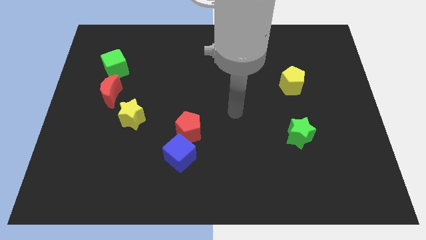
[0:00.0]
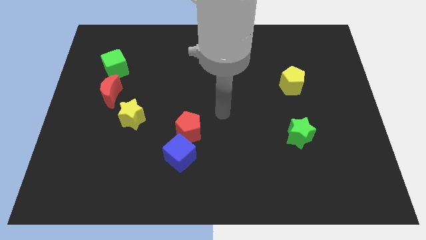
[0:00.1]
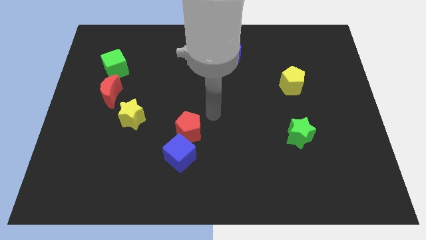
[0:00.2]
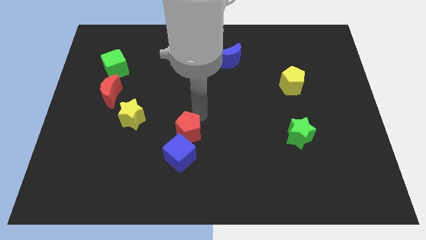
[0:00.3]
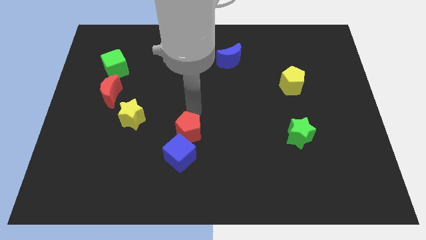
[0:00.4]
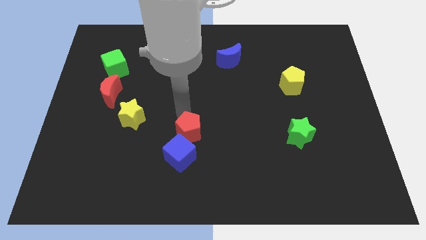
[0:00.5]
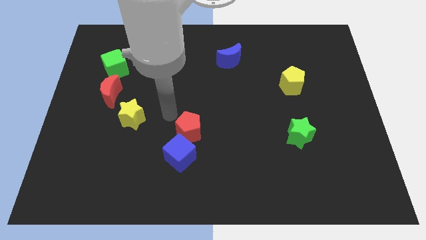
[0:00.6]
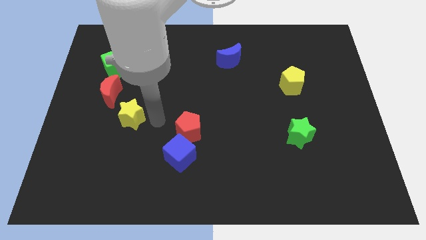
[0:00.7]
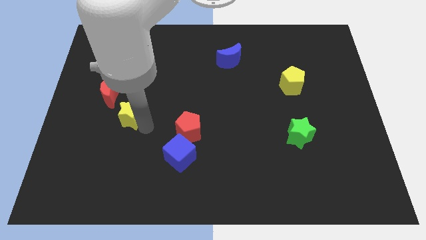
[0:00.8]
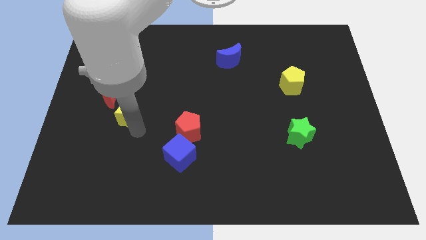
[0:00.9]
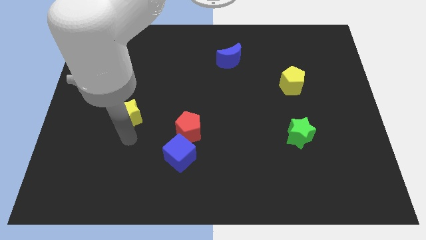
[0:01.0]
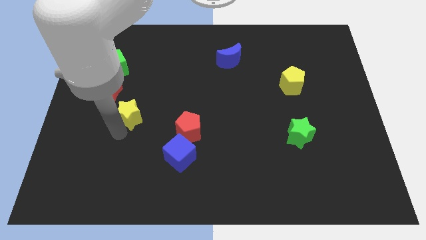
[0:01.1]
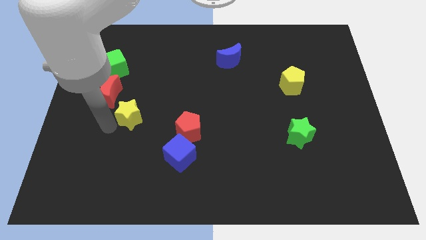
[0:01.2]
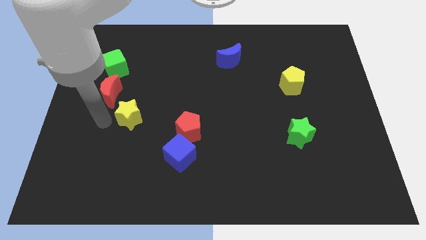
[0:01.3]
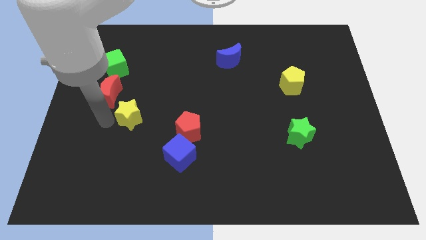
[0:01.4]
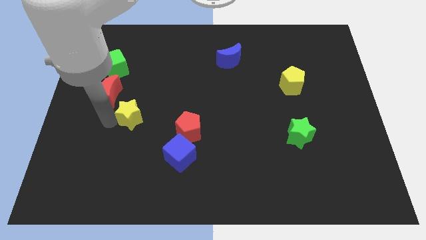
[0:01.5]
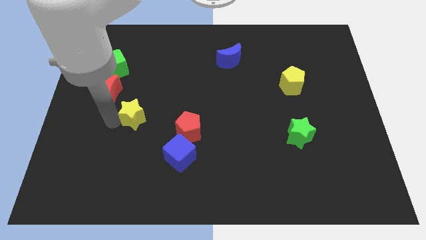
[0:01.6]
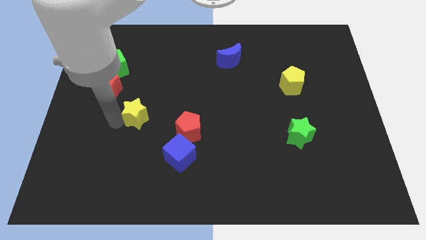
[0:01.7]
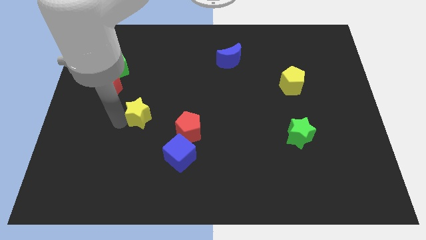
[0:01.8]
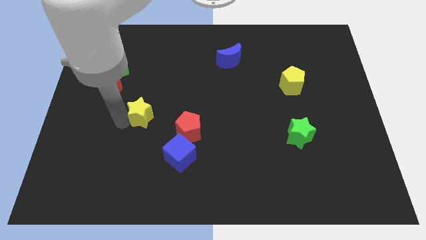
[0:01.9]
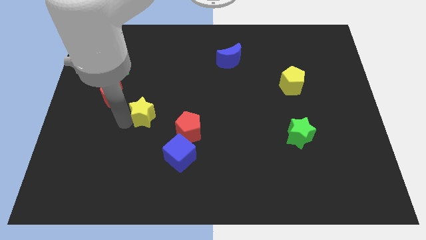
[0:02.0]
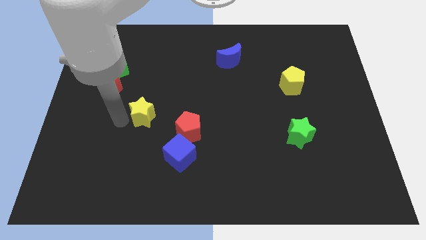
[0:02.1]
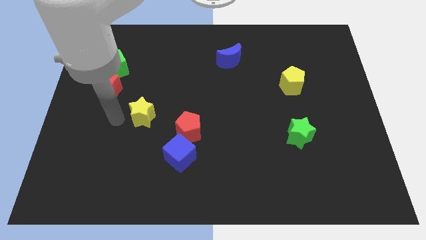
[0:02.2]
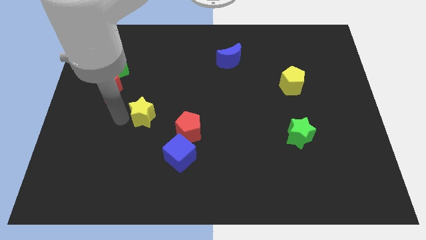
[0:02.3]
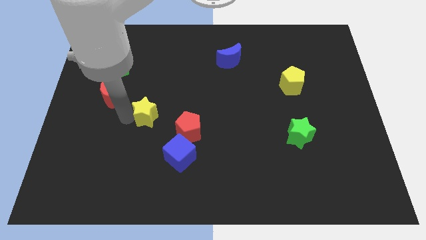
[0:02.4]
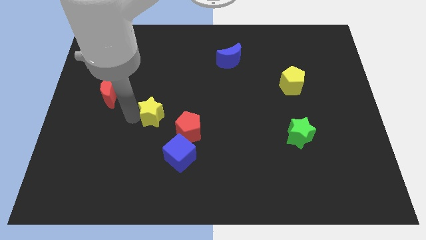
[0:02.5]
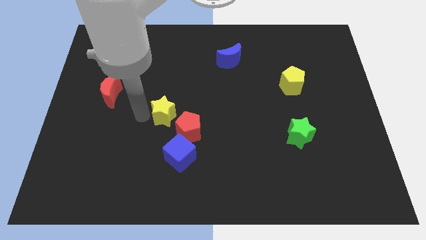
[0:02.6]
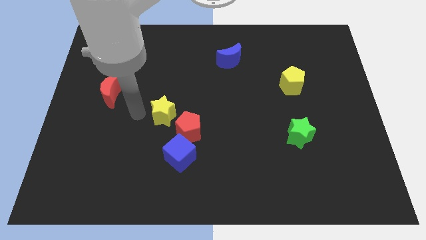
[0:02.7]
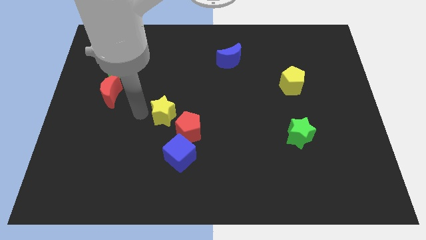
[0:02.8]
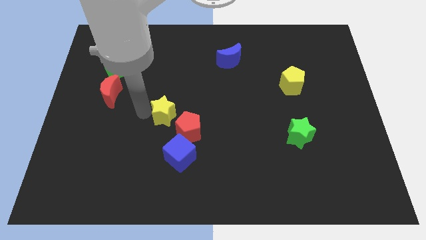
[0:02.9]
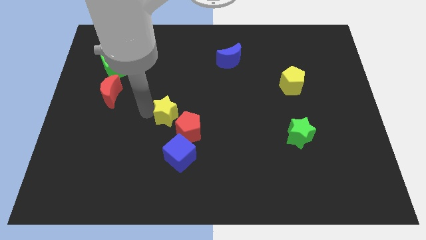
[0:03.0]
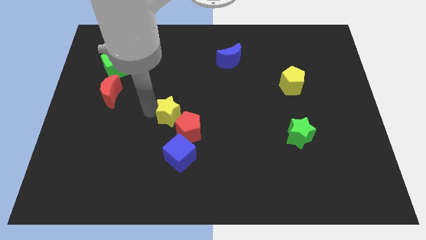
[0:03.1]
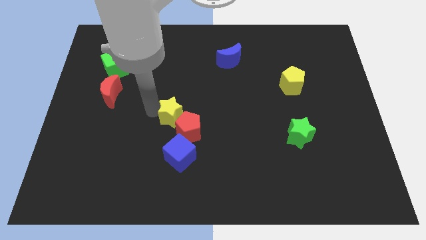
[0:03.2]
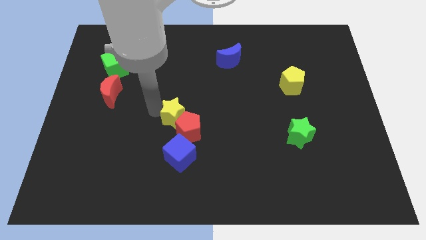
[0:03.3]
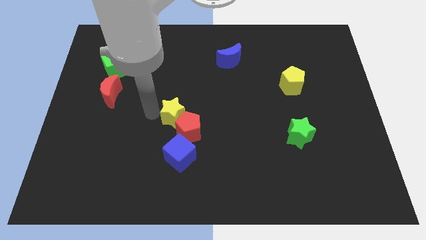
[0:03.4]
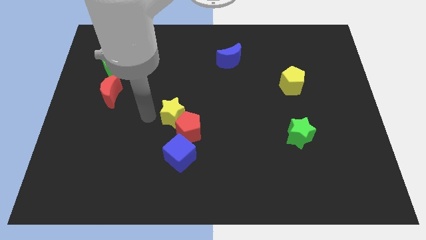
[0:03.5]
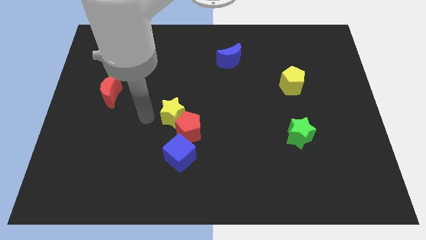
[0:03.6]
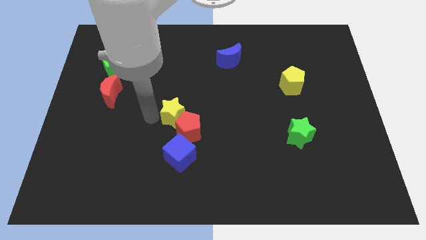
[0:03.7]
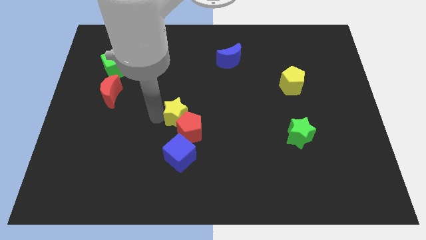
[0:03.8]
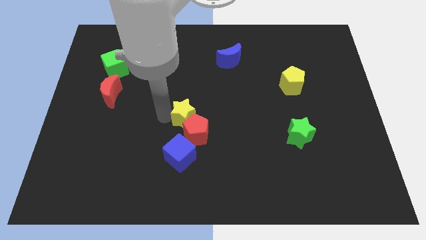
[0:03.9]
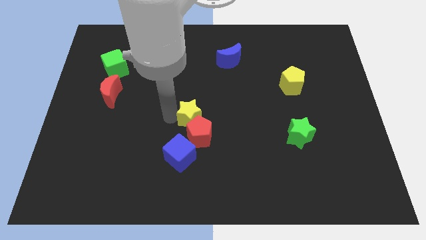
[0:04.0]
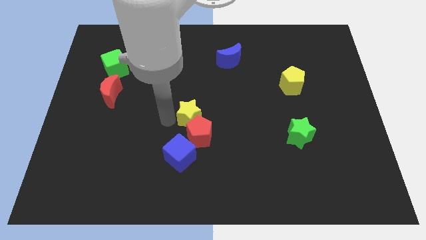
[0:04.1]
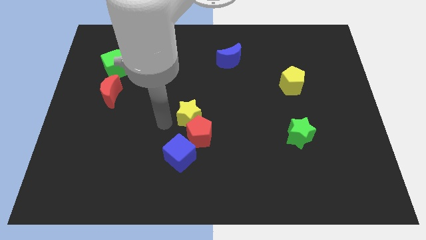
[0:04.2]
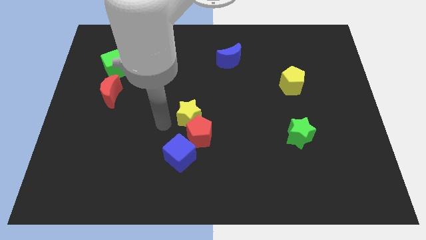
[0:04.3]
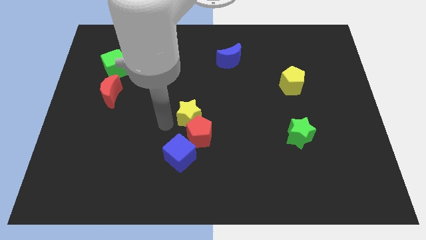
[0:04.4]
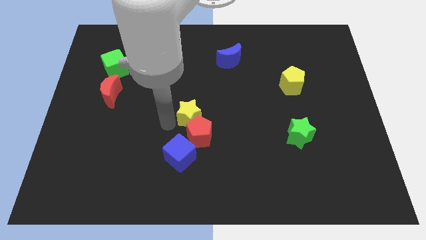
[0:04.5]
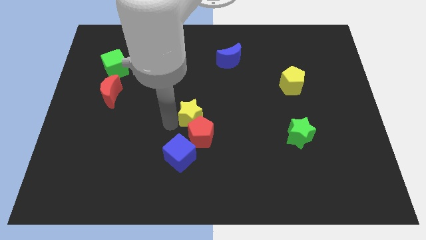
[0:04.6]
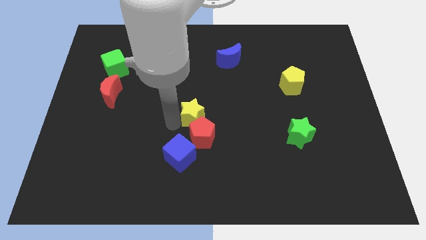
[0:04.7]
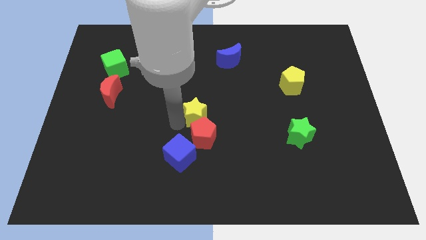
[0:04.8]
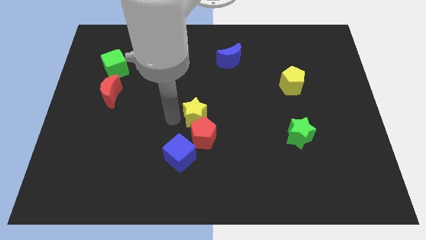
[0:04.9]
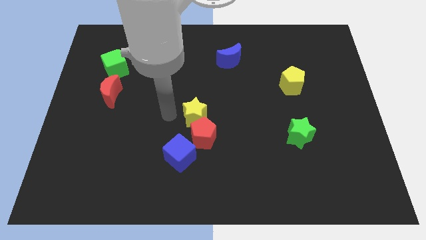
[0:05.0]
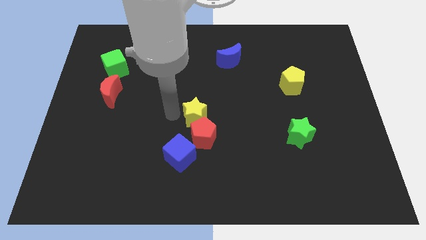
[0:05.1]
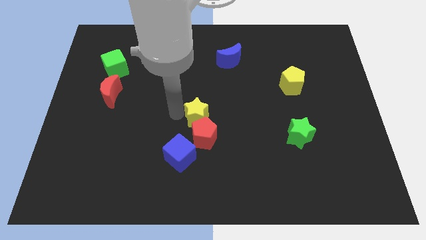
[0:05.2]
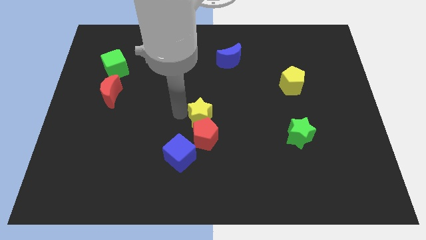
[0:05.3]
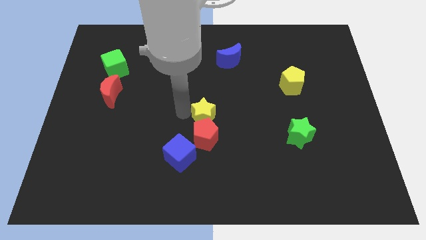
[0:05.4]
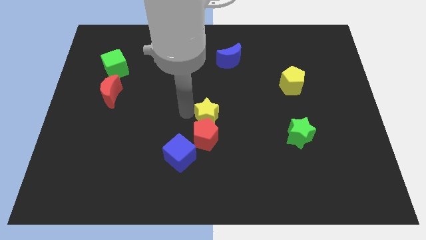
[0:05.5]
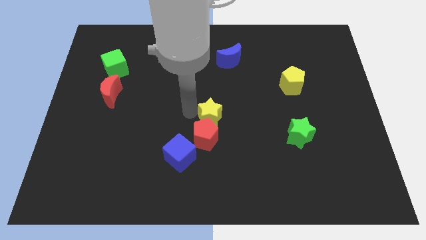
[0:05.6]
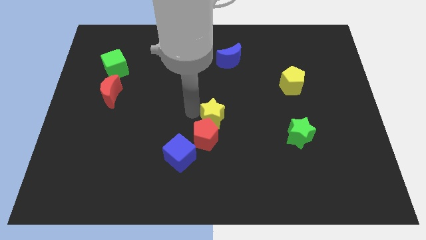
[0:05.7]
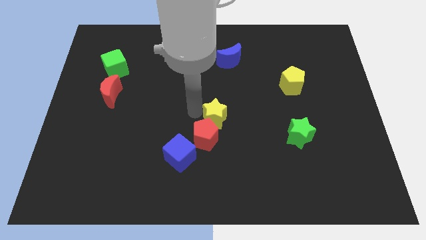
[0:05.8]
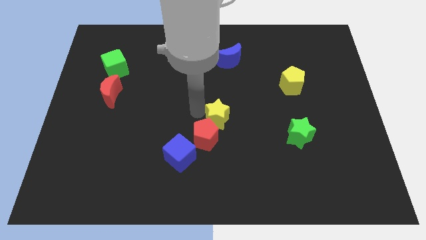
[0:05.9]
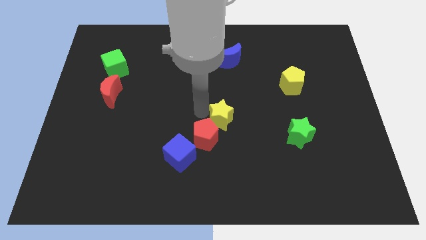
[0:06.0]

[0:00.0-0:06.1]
move the yellow star to the right

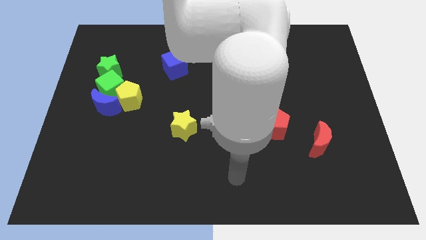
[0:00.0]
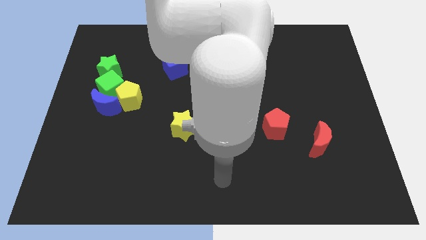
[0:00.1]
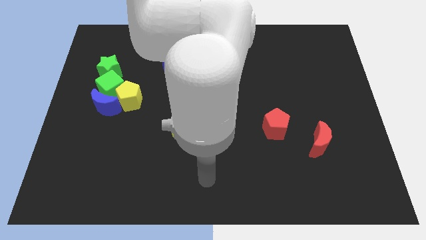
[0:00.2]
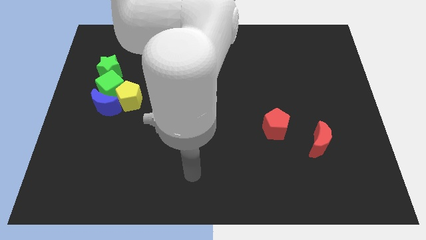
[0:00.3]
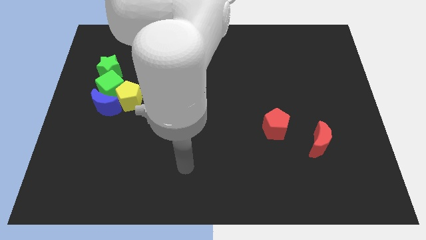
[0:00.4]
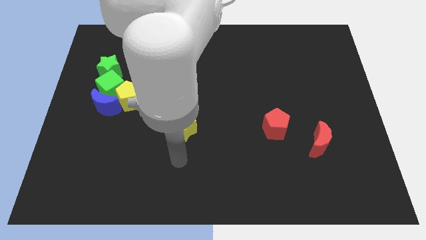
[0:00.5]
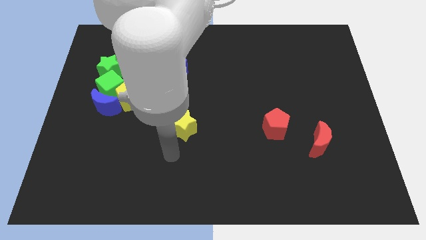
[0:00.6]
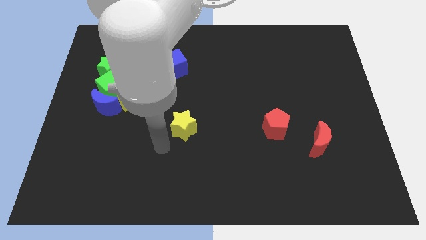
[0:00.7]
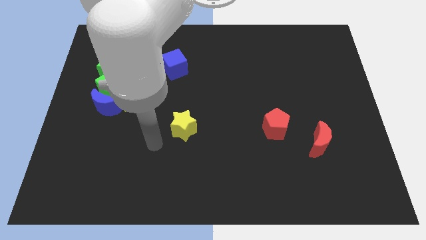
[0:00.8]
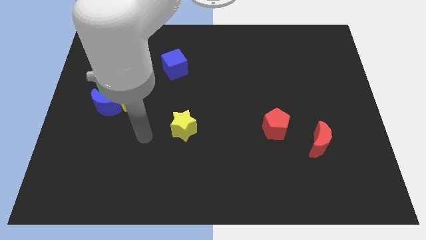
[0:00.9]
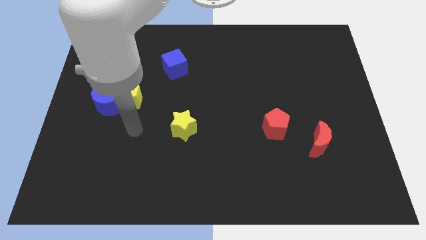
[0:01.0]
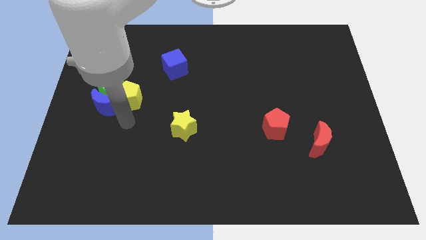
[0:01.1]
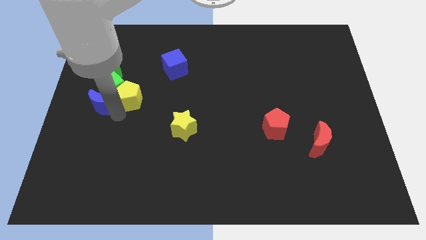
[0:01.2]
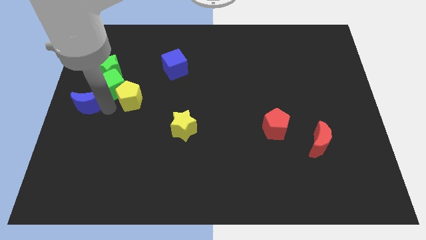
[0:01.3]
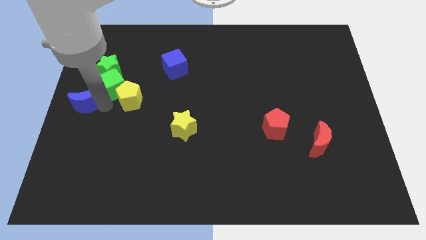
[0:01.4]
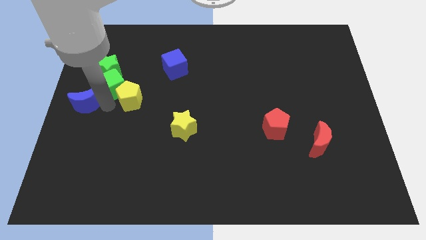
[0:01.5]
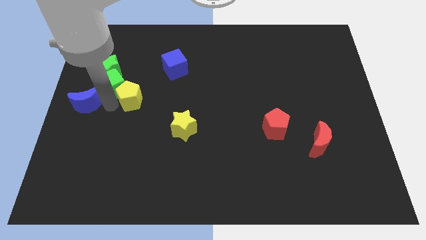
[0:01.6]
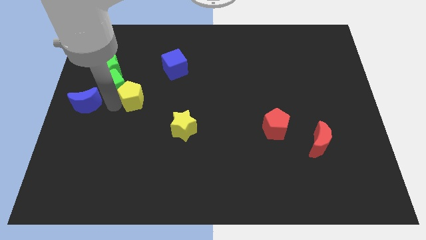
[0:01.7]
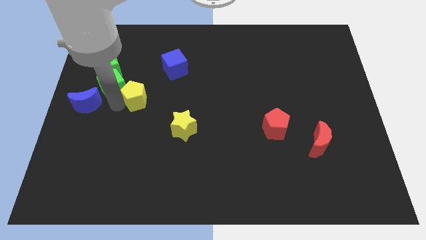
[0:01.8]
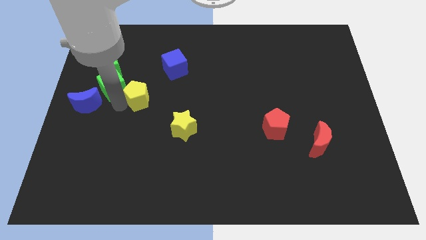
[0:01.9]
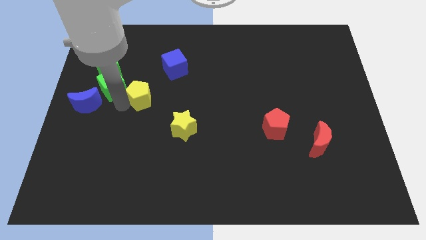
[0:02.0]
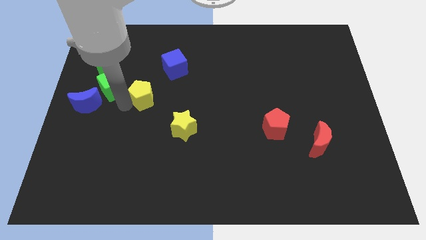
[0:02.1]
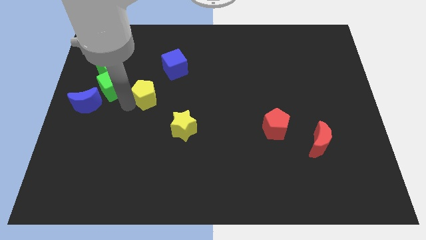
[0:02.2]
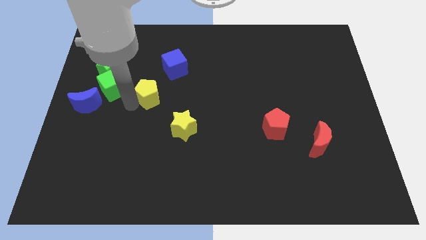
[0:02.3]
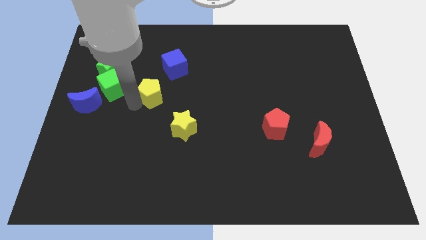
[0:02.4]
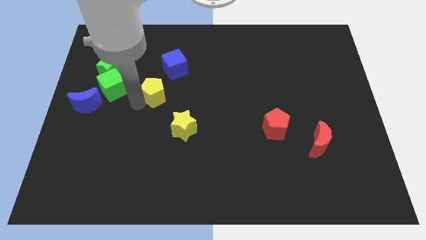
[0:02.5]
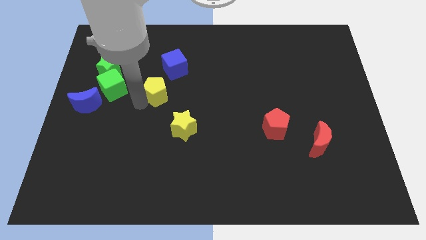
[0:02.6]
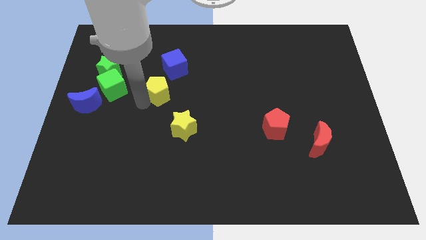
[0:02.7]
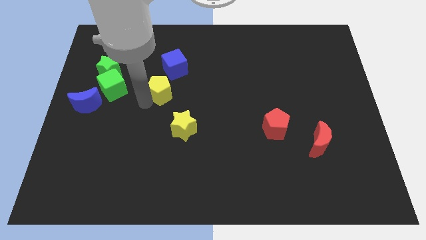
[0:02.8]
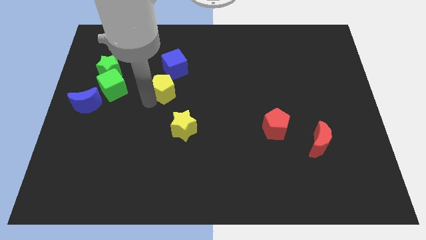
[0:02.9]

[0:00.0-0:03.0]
push the yellow pentagon a little bit up and then right
